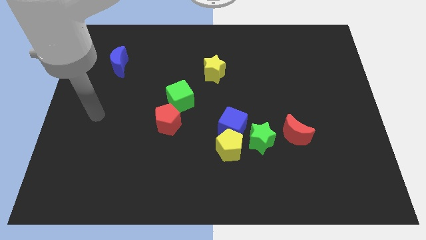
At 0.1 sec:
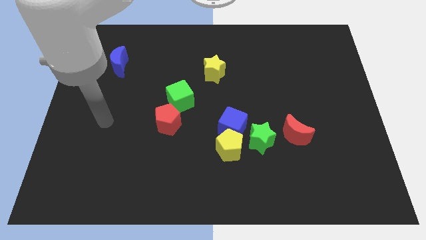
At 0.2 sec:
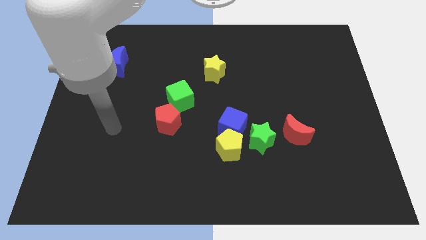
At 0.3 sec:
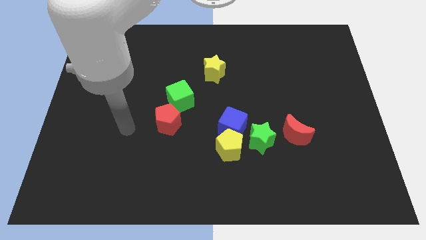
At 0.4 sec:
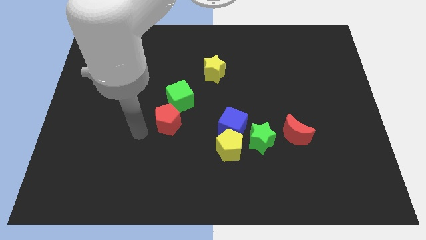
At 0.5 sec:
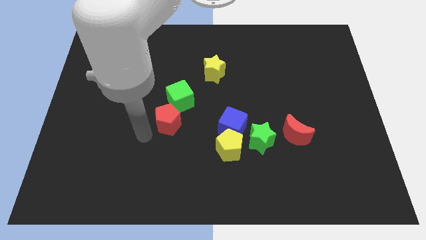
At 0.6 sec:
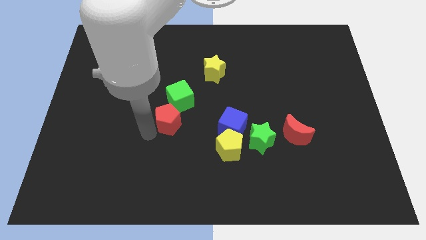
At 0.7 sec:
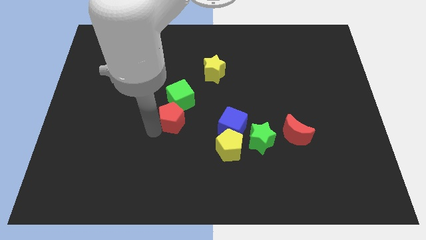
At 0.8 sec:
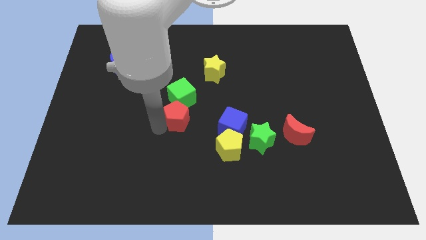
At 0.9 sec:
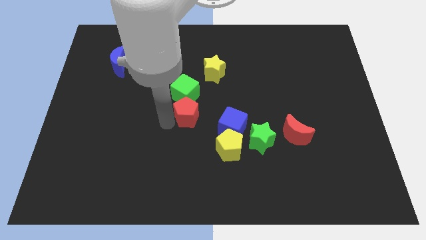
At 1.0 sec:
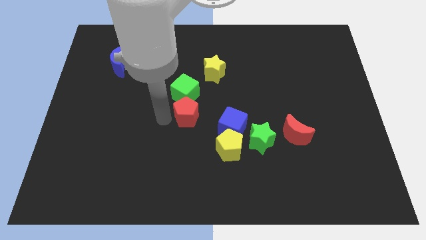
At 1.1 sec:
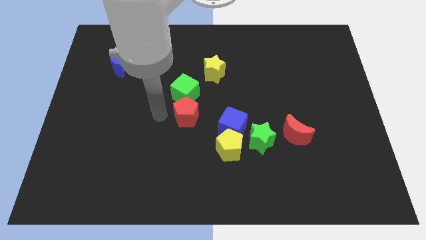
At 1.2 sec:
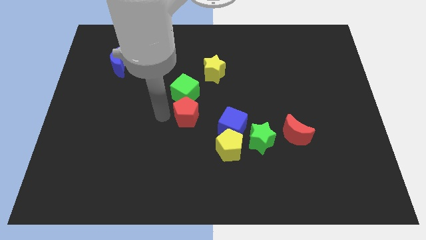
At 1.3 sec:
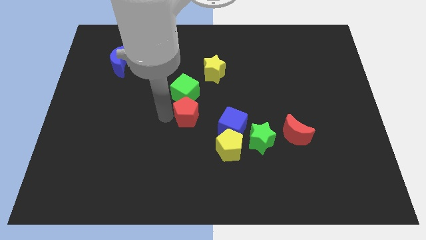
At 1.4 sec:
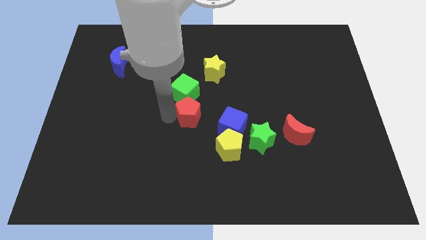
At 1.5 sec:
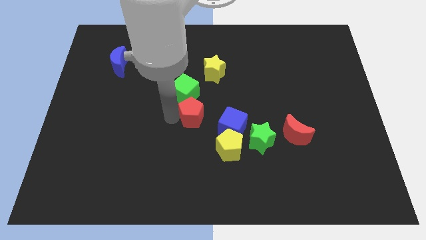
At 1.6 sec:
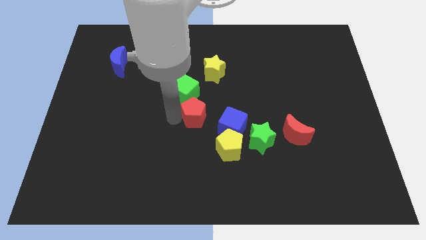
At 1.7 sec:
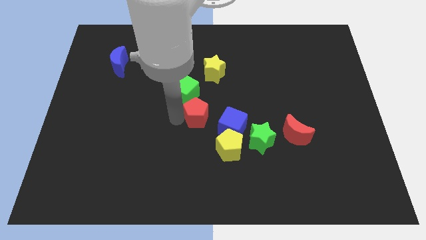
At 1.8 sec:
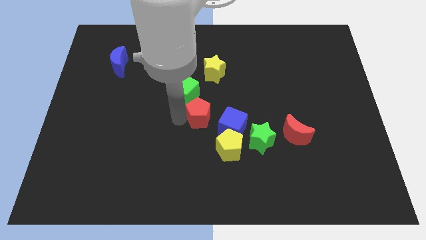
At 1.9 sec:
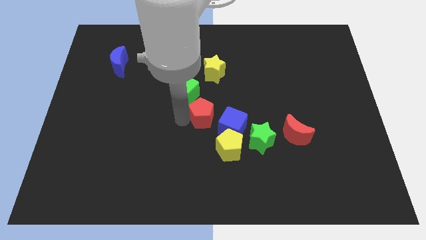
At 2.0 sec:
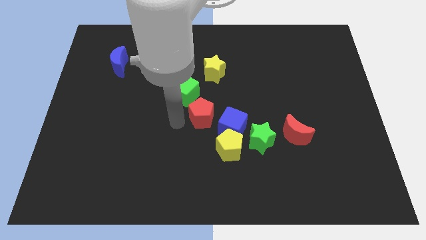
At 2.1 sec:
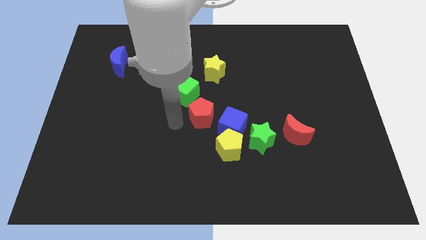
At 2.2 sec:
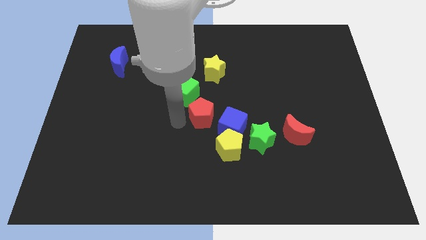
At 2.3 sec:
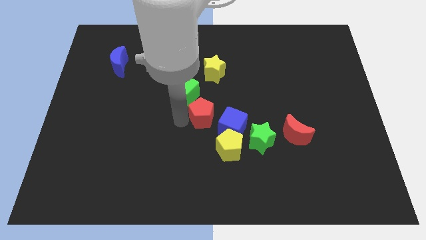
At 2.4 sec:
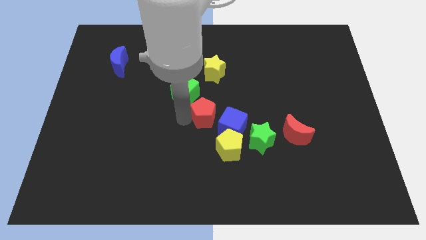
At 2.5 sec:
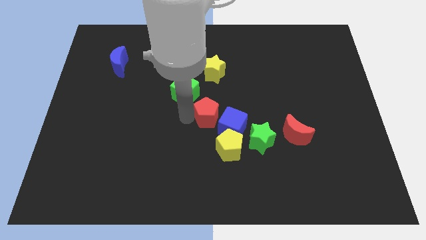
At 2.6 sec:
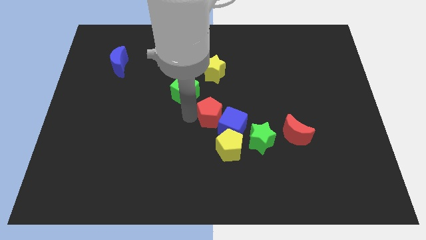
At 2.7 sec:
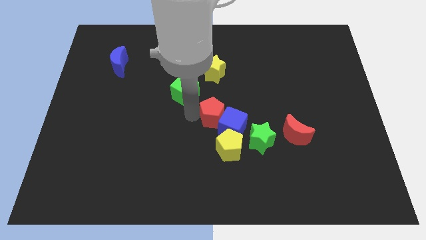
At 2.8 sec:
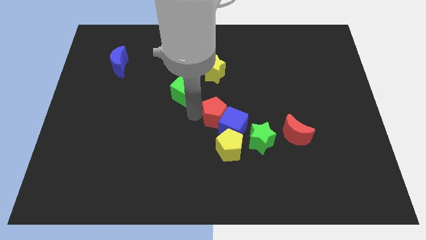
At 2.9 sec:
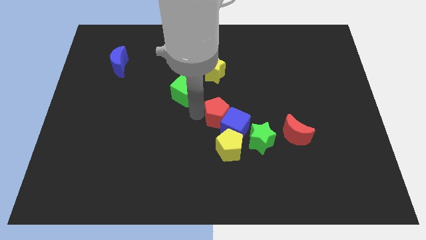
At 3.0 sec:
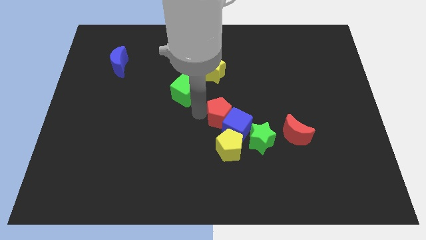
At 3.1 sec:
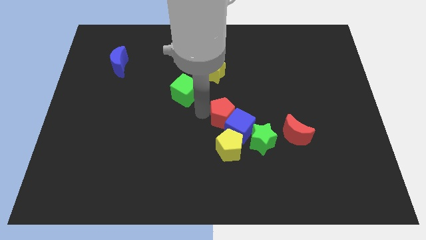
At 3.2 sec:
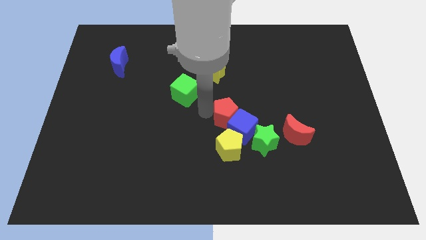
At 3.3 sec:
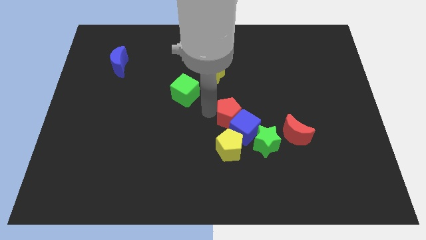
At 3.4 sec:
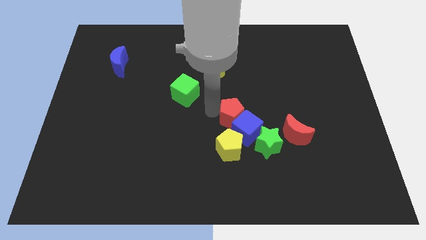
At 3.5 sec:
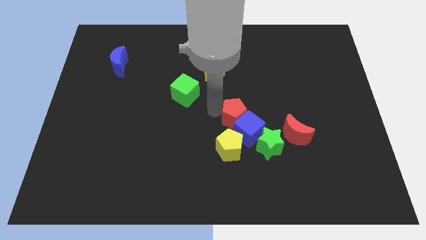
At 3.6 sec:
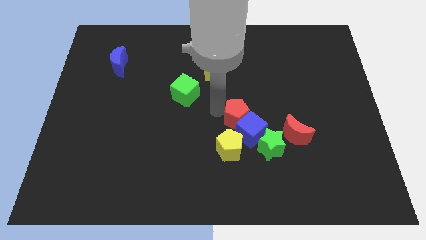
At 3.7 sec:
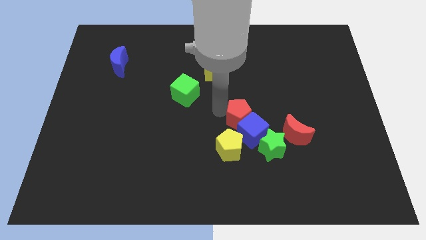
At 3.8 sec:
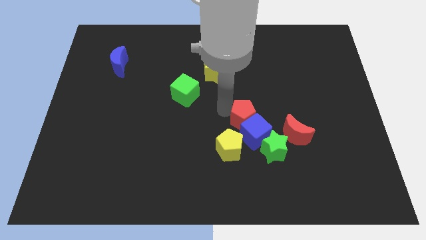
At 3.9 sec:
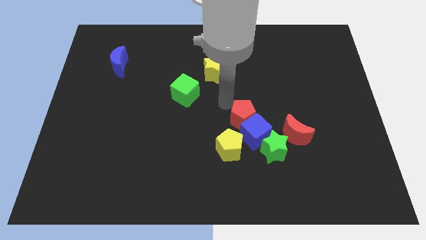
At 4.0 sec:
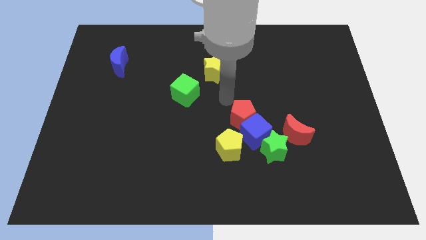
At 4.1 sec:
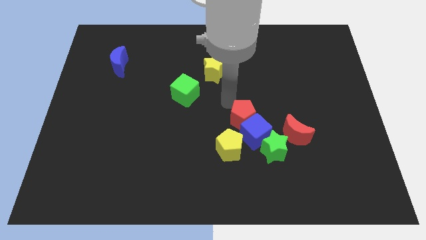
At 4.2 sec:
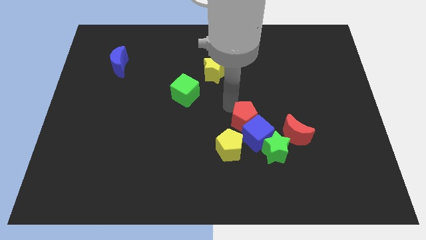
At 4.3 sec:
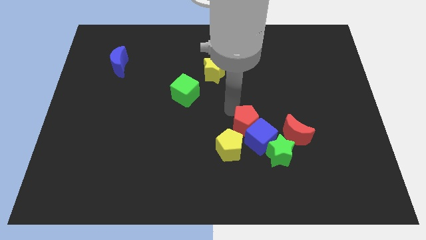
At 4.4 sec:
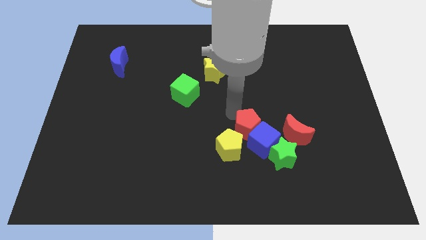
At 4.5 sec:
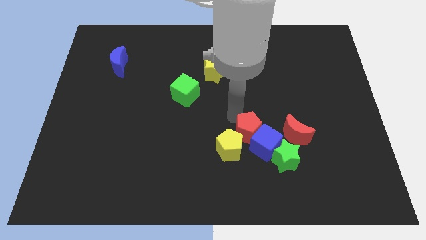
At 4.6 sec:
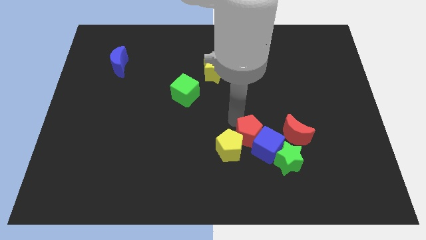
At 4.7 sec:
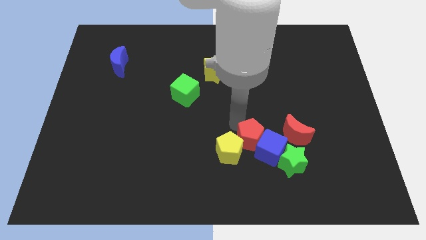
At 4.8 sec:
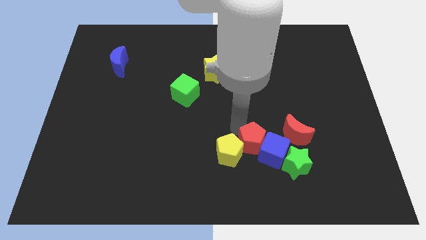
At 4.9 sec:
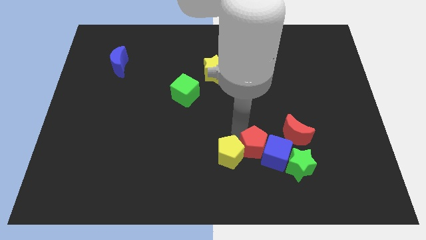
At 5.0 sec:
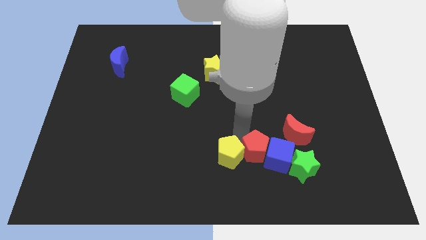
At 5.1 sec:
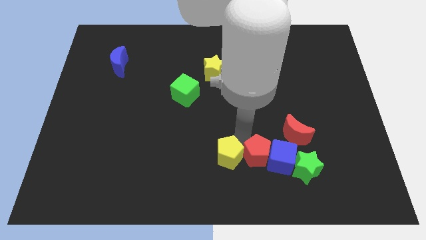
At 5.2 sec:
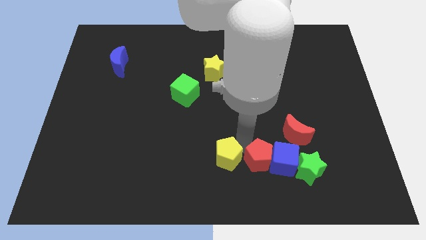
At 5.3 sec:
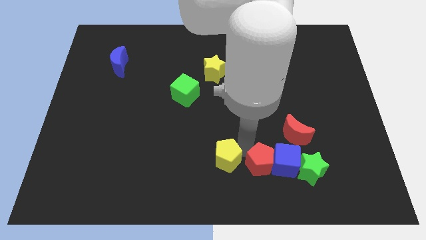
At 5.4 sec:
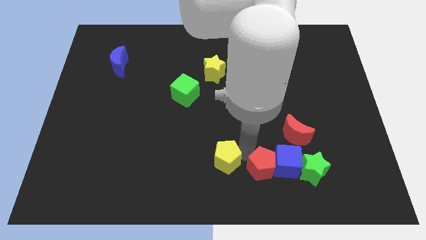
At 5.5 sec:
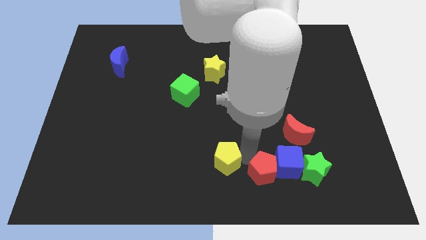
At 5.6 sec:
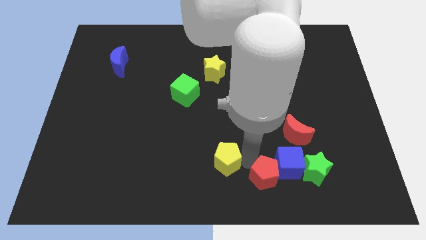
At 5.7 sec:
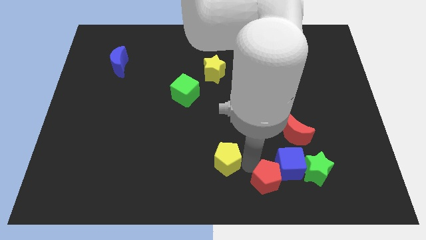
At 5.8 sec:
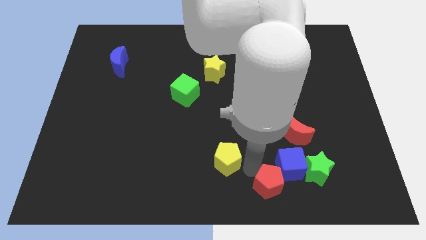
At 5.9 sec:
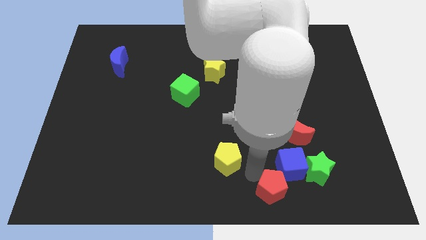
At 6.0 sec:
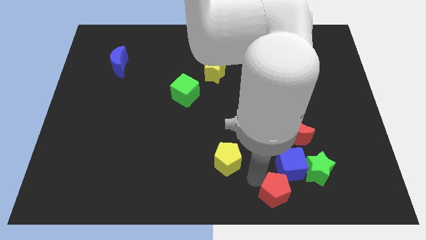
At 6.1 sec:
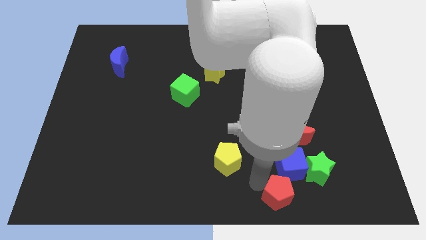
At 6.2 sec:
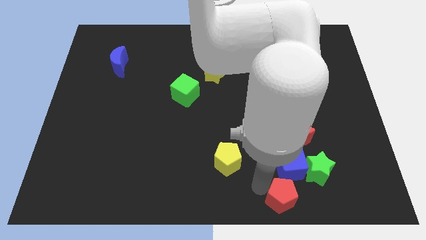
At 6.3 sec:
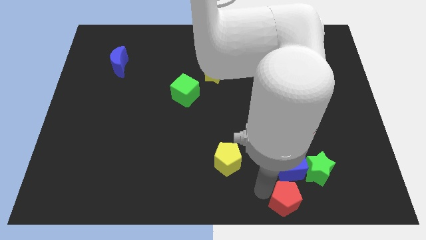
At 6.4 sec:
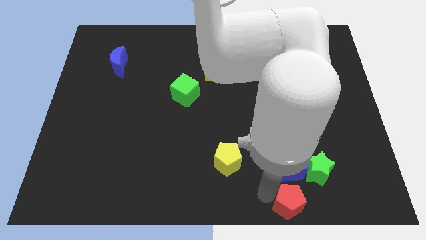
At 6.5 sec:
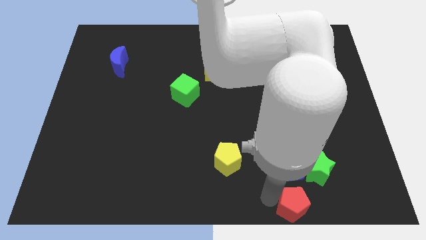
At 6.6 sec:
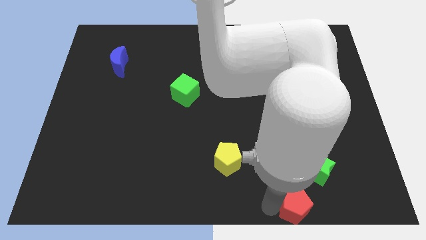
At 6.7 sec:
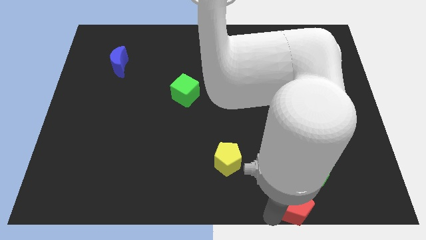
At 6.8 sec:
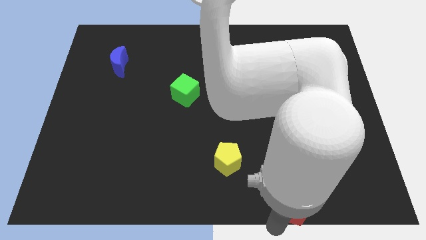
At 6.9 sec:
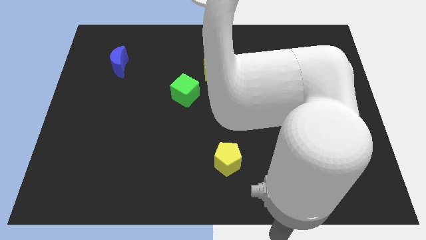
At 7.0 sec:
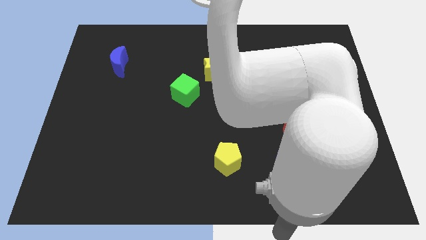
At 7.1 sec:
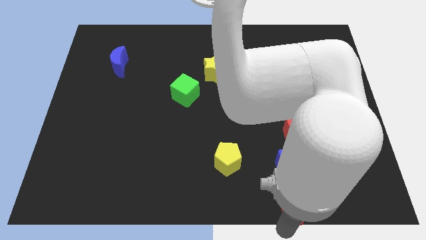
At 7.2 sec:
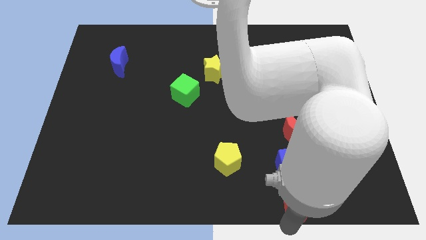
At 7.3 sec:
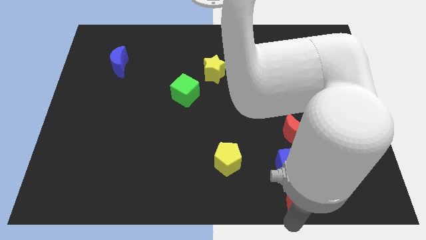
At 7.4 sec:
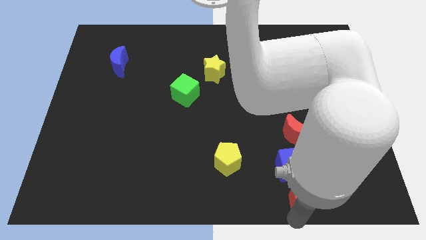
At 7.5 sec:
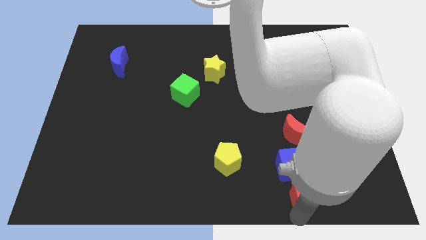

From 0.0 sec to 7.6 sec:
move the red pentagon to the green star

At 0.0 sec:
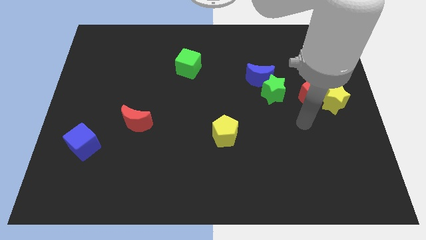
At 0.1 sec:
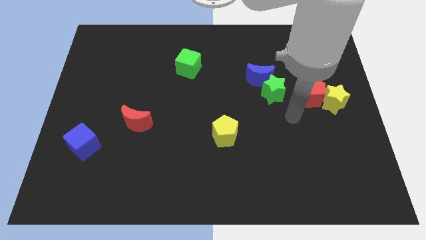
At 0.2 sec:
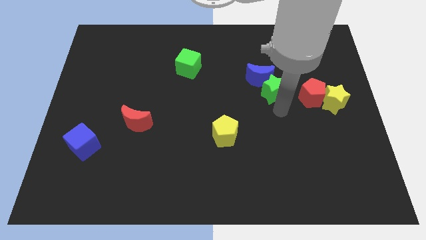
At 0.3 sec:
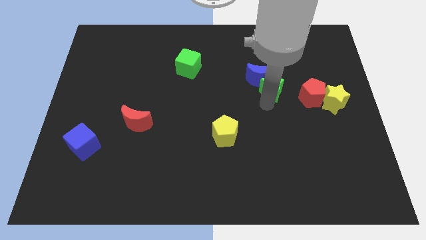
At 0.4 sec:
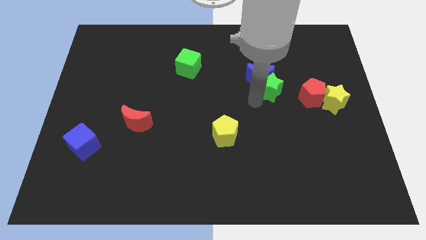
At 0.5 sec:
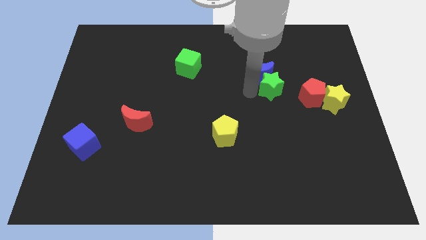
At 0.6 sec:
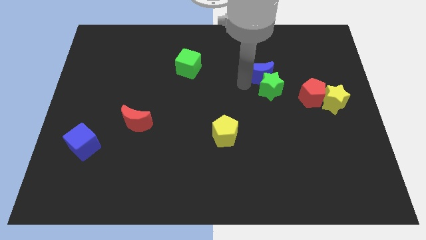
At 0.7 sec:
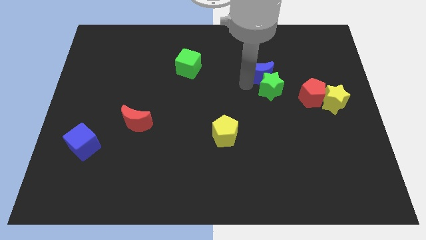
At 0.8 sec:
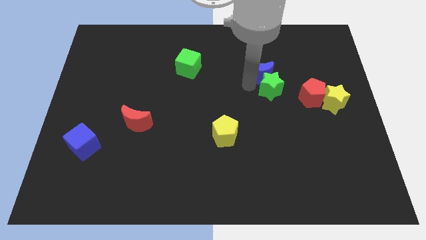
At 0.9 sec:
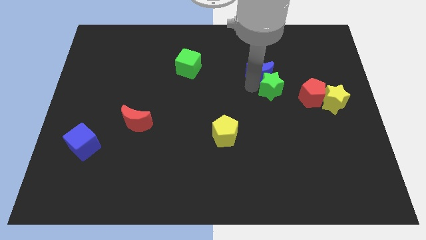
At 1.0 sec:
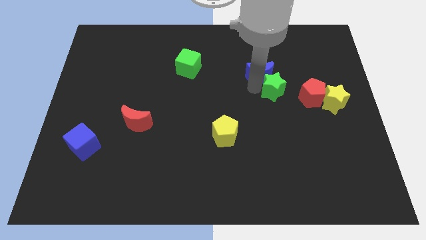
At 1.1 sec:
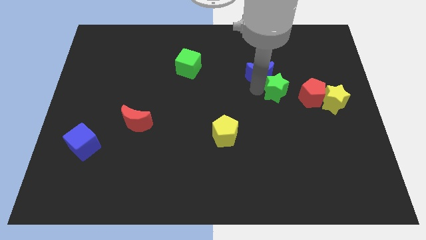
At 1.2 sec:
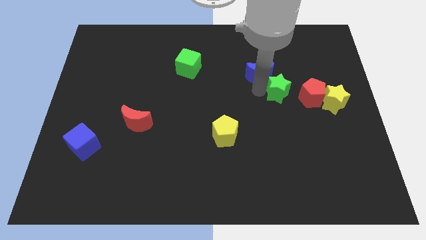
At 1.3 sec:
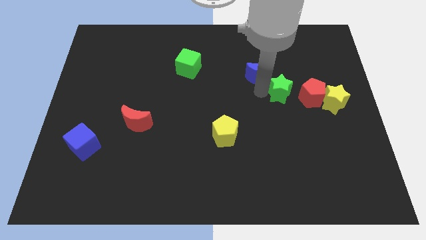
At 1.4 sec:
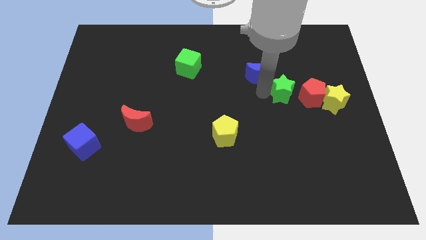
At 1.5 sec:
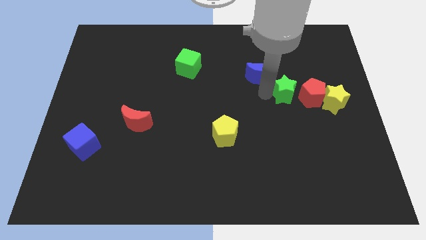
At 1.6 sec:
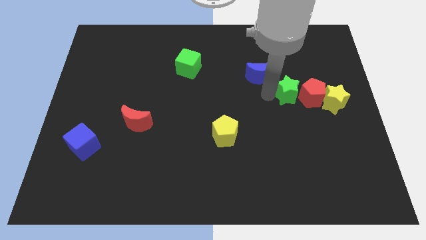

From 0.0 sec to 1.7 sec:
push the green star next to the red pentagon
